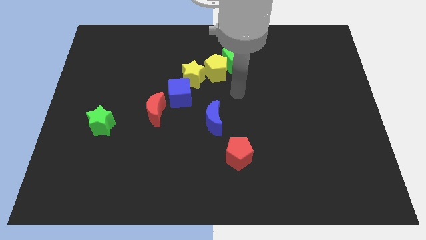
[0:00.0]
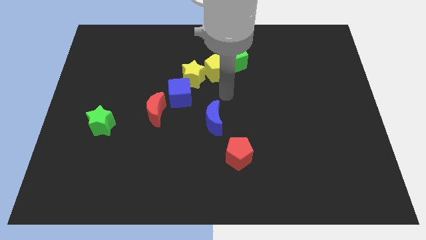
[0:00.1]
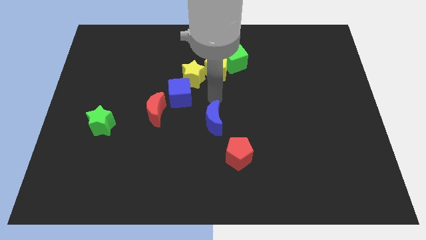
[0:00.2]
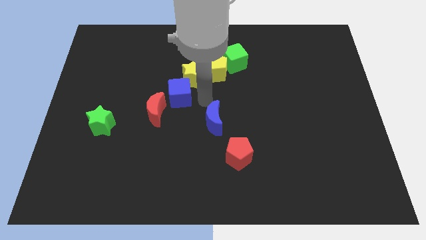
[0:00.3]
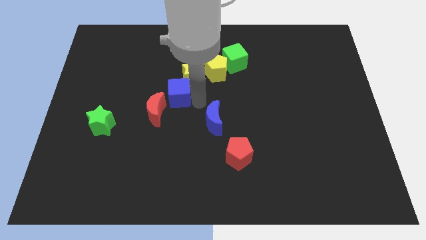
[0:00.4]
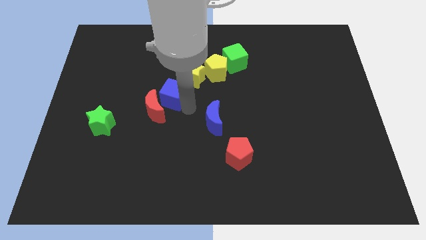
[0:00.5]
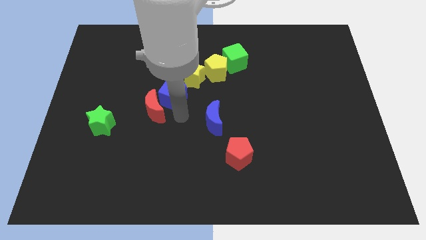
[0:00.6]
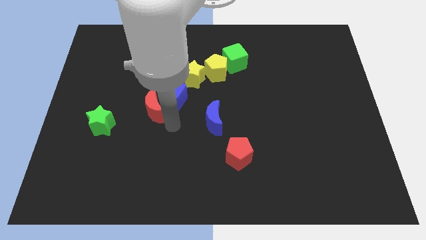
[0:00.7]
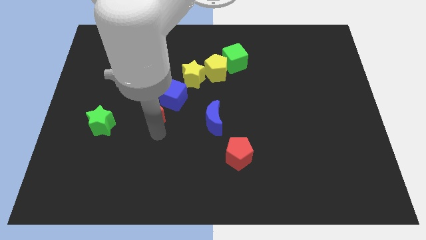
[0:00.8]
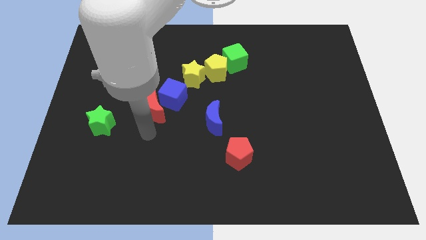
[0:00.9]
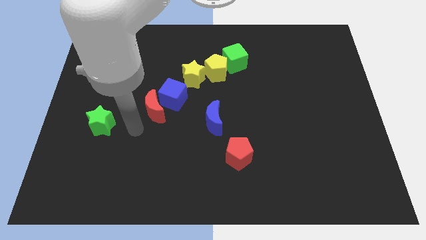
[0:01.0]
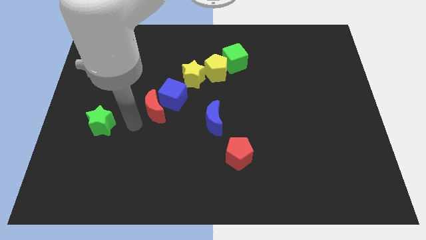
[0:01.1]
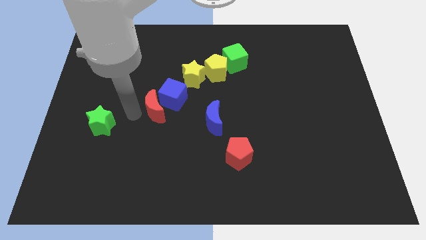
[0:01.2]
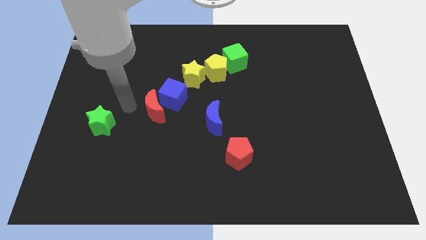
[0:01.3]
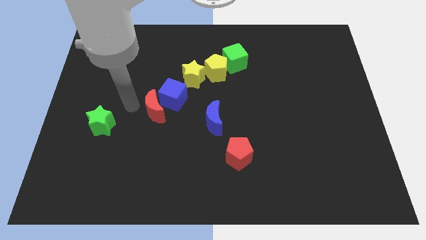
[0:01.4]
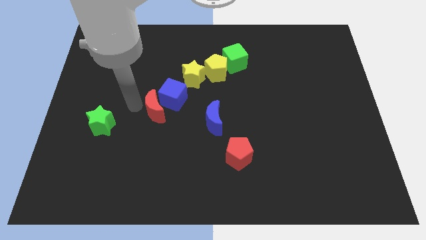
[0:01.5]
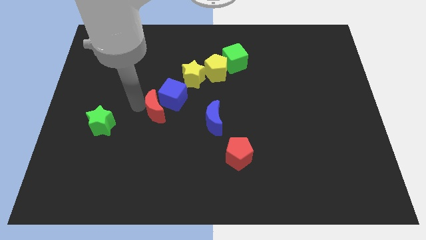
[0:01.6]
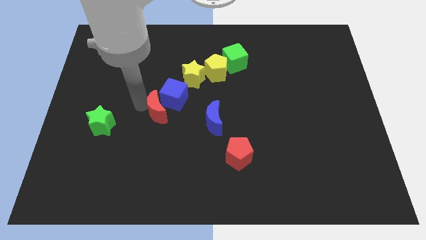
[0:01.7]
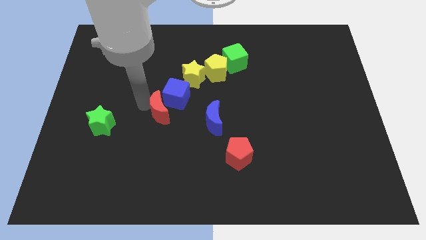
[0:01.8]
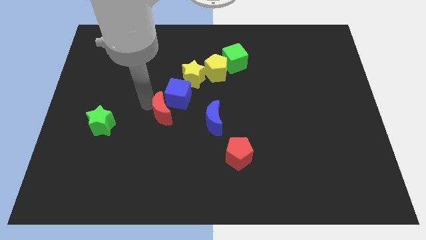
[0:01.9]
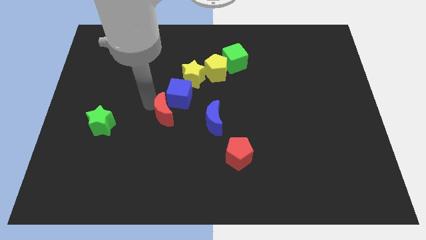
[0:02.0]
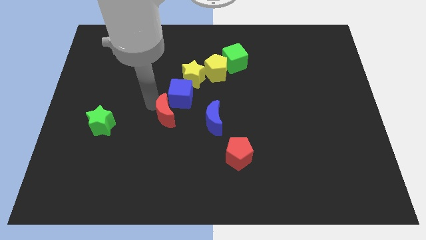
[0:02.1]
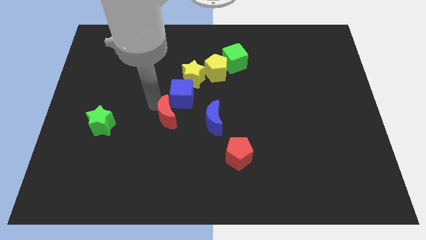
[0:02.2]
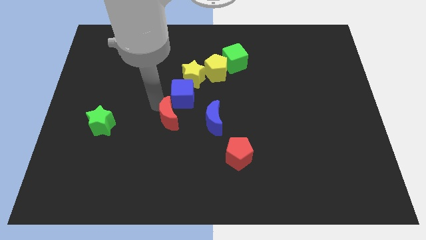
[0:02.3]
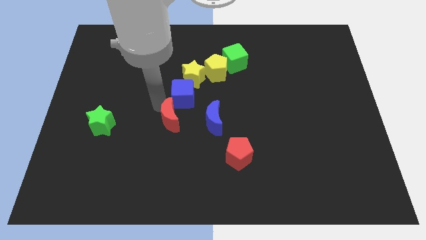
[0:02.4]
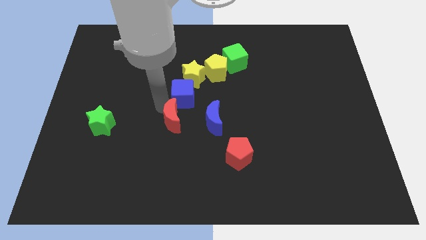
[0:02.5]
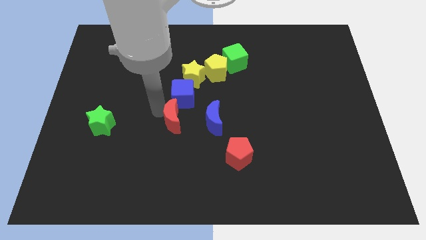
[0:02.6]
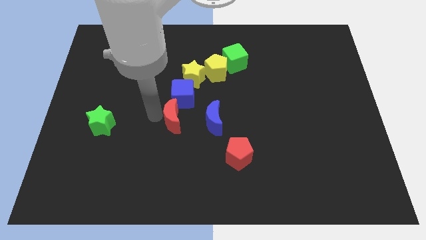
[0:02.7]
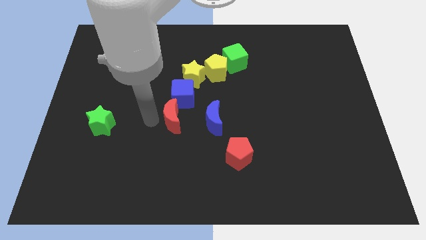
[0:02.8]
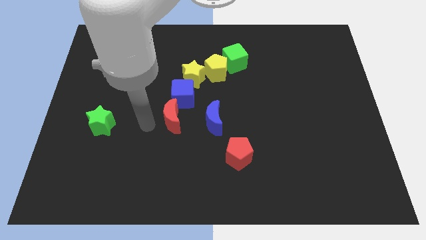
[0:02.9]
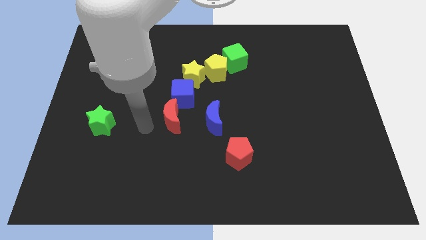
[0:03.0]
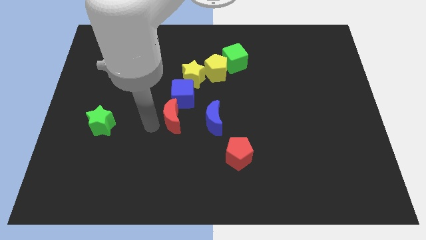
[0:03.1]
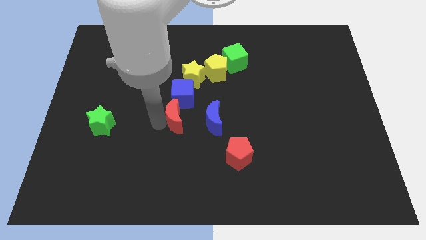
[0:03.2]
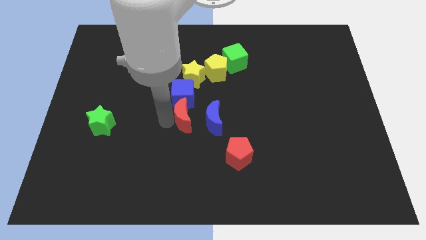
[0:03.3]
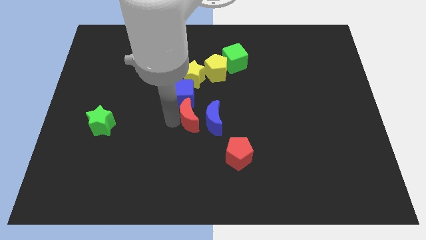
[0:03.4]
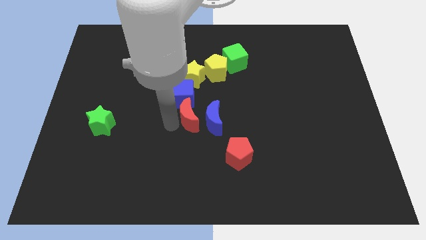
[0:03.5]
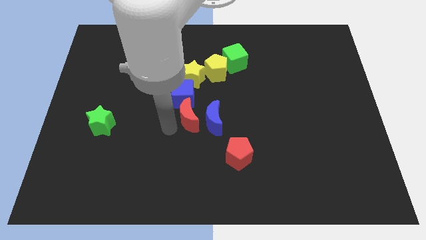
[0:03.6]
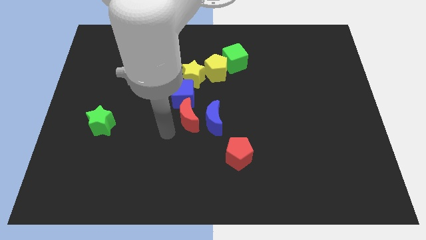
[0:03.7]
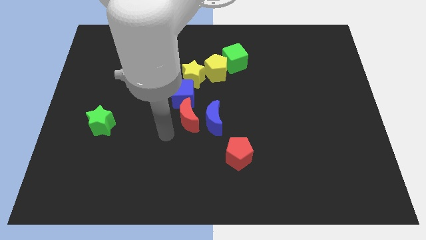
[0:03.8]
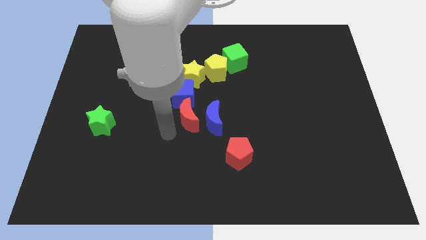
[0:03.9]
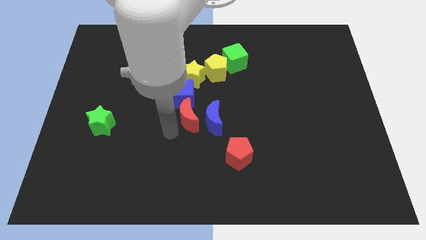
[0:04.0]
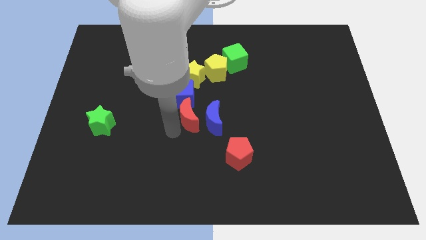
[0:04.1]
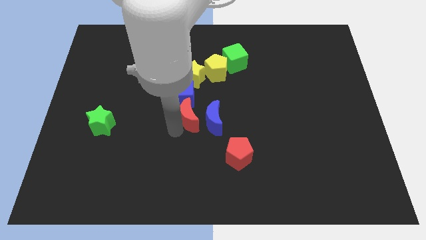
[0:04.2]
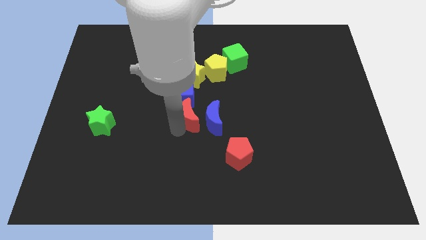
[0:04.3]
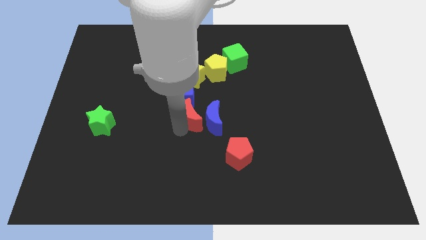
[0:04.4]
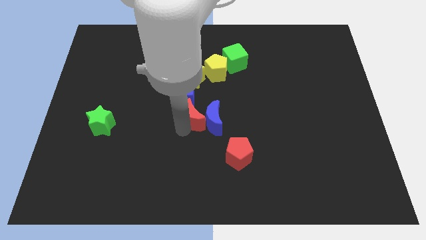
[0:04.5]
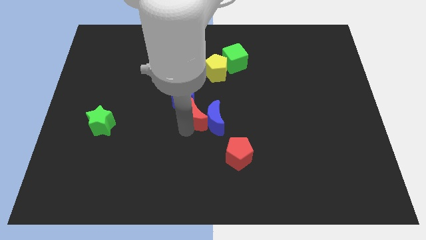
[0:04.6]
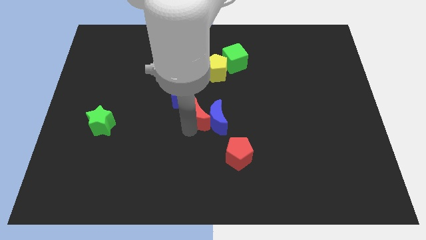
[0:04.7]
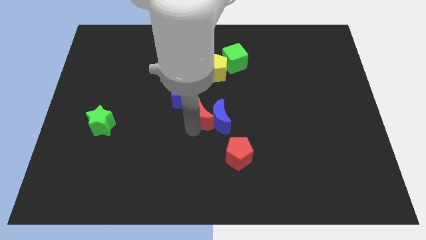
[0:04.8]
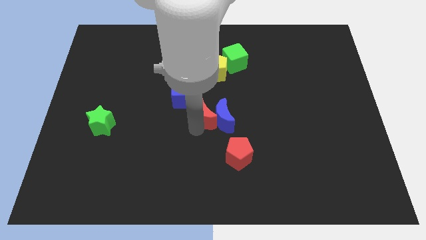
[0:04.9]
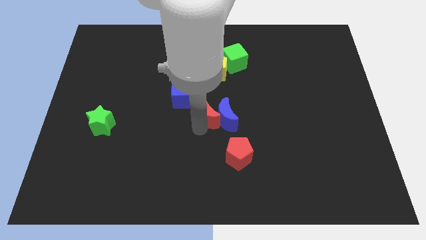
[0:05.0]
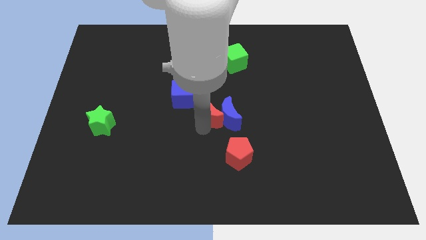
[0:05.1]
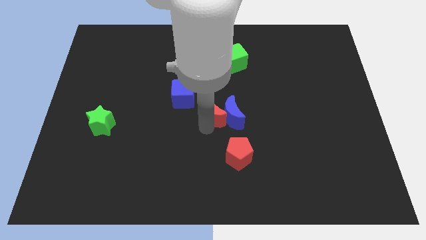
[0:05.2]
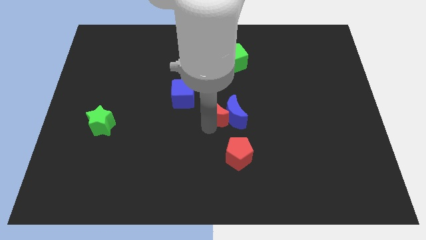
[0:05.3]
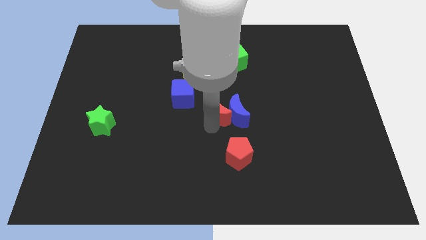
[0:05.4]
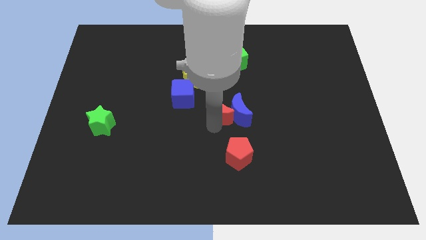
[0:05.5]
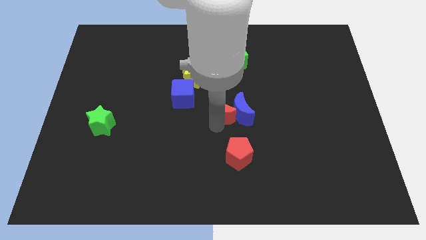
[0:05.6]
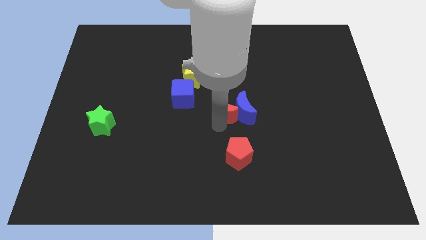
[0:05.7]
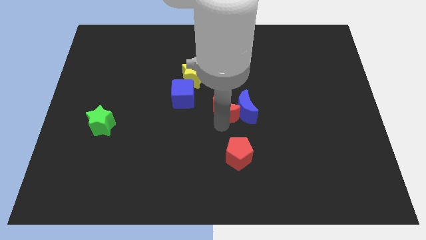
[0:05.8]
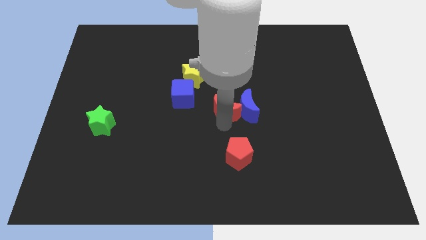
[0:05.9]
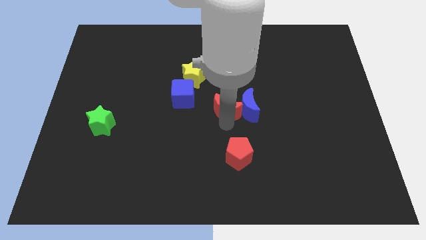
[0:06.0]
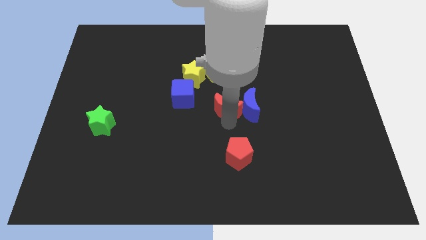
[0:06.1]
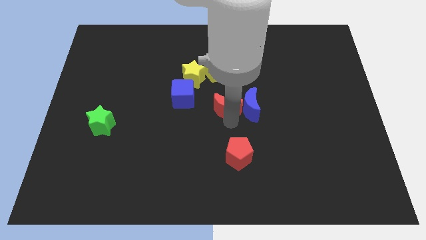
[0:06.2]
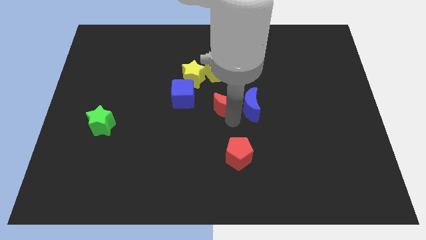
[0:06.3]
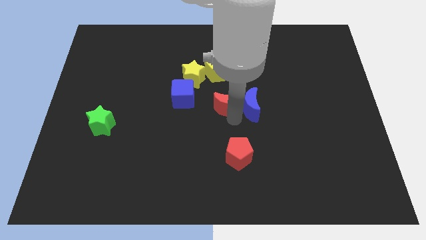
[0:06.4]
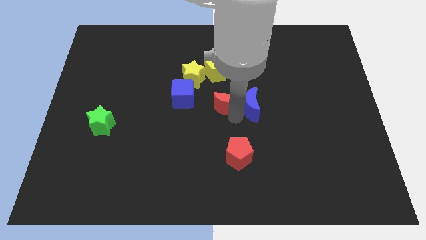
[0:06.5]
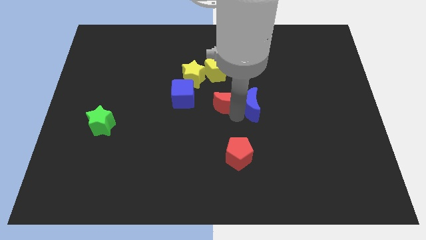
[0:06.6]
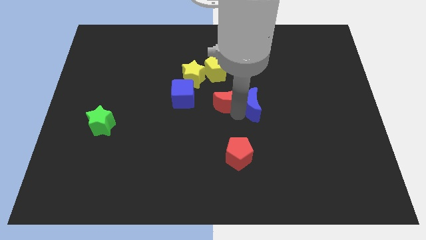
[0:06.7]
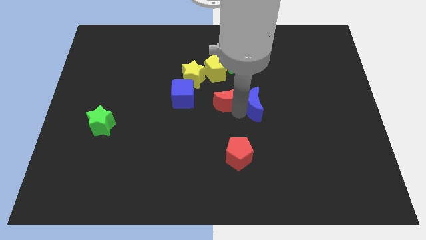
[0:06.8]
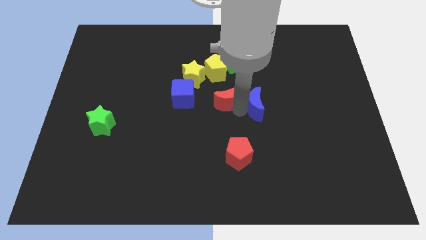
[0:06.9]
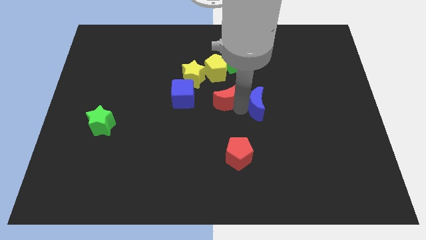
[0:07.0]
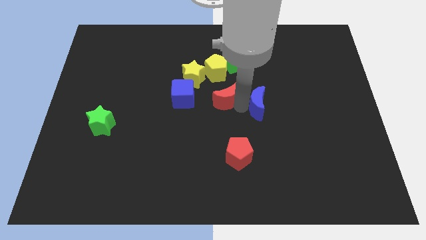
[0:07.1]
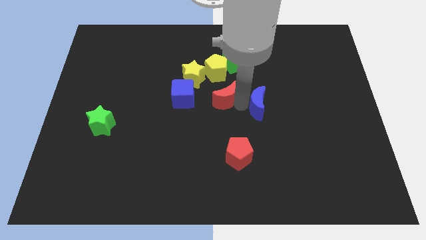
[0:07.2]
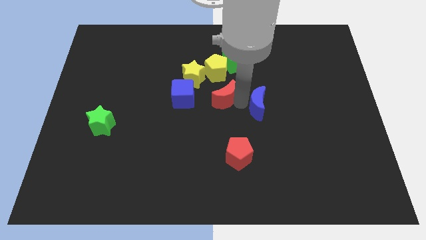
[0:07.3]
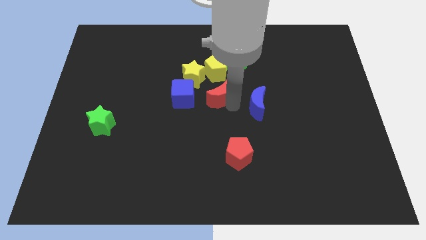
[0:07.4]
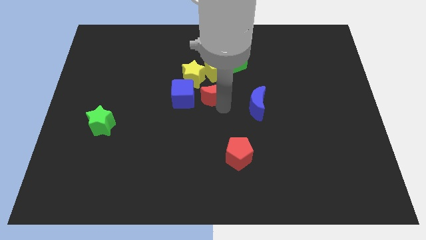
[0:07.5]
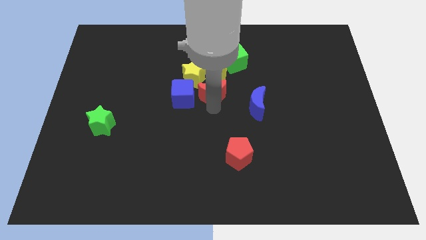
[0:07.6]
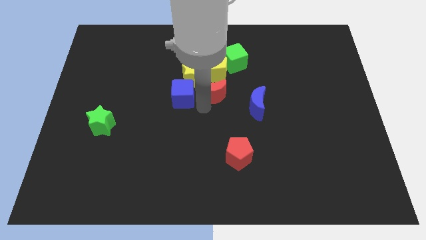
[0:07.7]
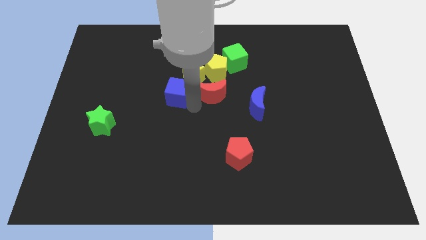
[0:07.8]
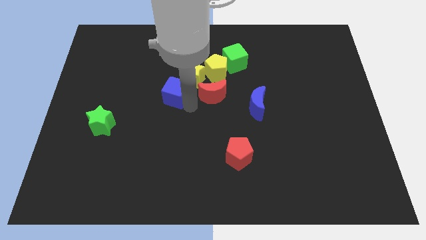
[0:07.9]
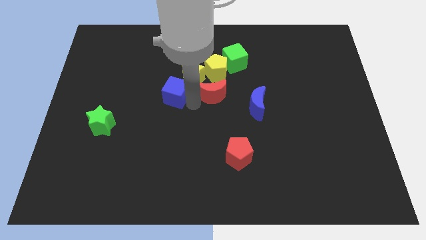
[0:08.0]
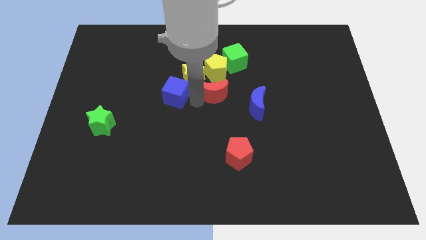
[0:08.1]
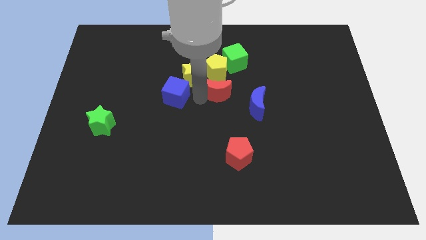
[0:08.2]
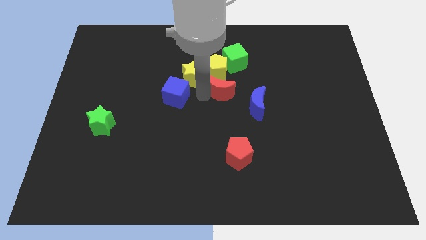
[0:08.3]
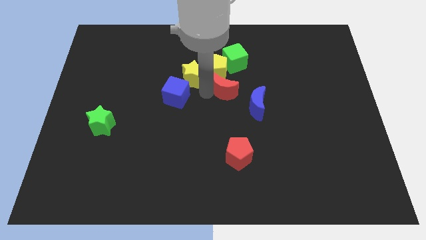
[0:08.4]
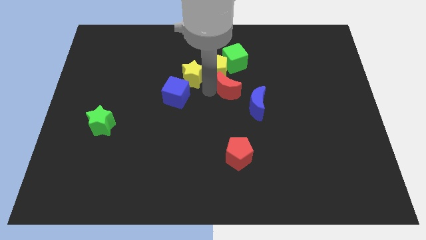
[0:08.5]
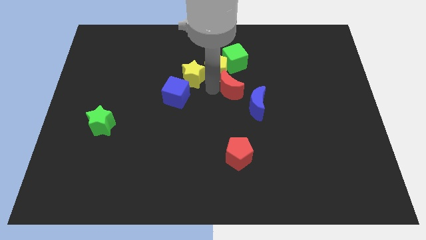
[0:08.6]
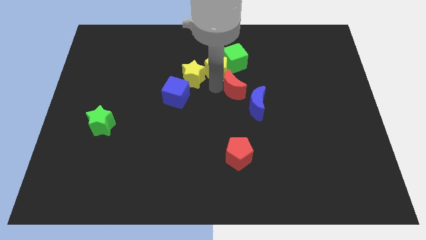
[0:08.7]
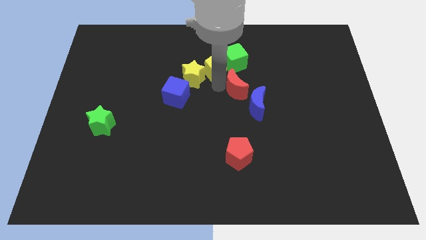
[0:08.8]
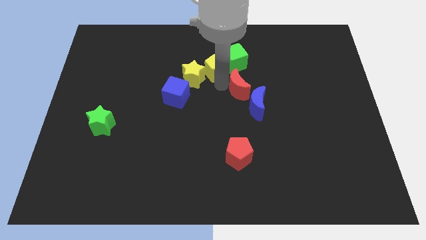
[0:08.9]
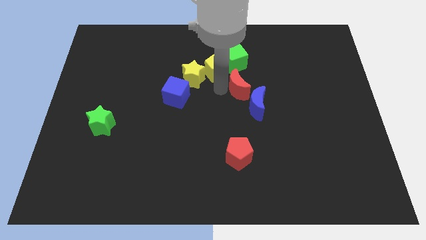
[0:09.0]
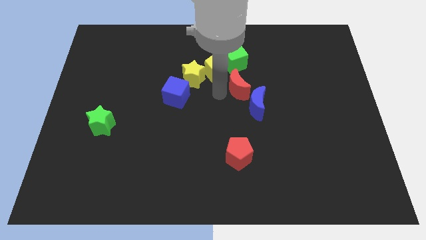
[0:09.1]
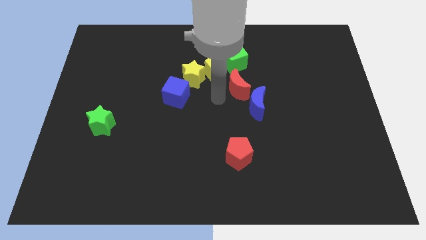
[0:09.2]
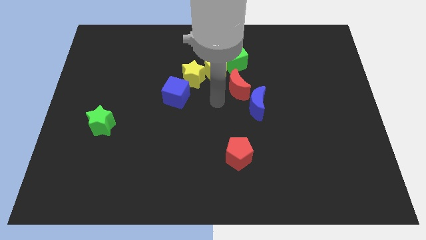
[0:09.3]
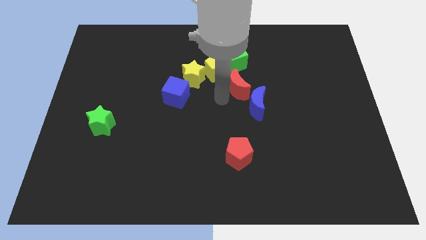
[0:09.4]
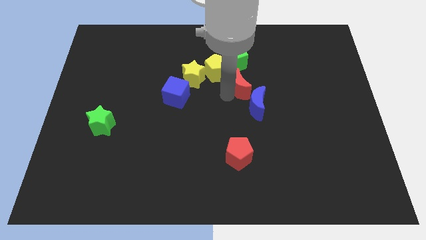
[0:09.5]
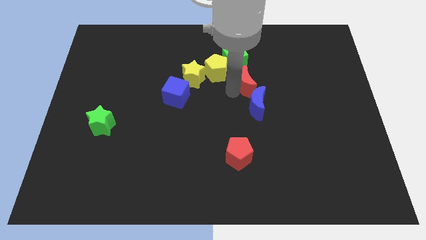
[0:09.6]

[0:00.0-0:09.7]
put the red moon to the bottom right of the green cube
